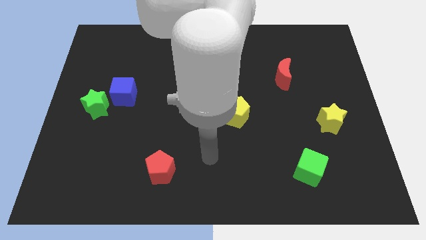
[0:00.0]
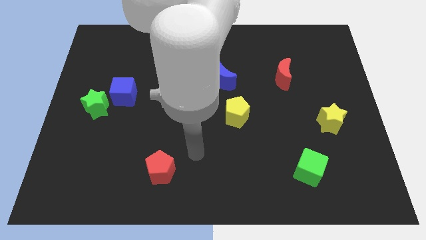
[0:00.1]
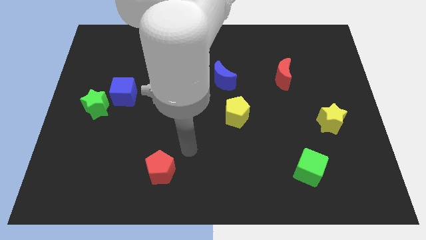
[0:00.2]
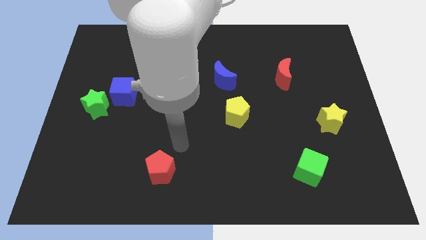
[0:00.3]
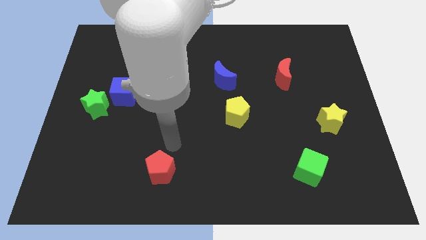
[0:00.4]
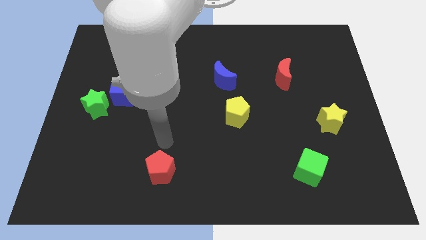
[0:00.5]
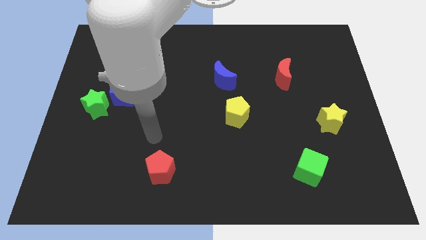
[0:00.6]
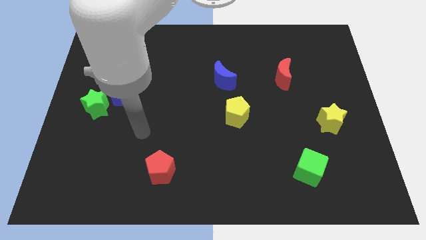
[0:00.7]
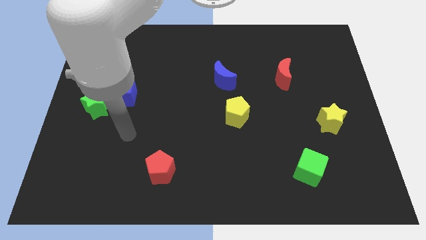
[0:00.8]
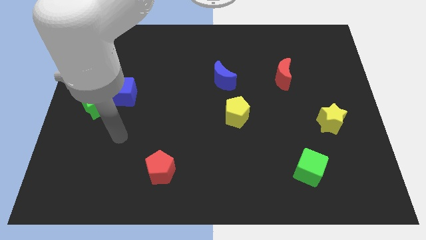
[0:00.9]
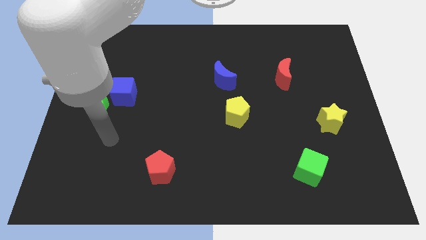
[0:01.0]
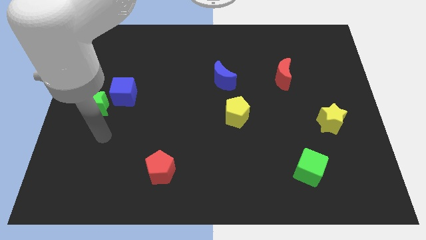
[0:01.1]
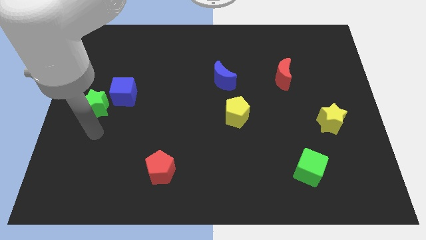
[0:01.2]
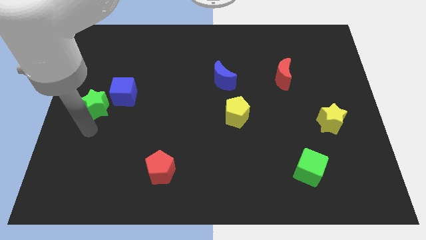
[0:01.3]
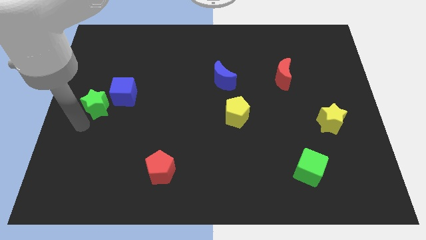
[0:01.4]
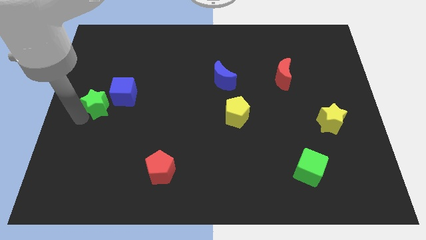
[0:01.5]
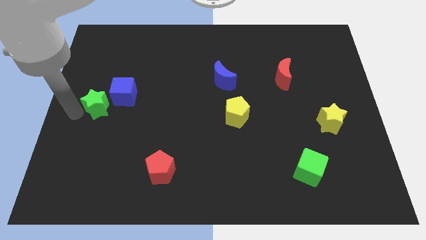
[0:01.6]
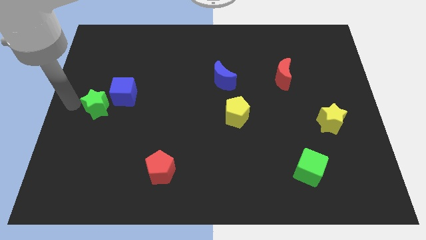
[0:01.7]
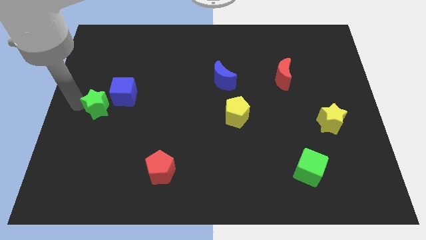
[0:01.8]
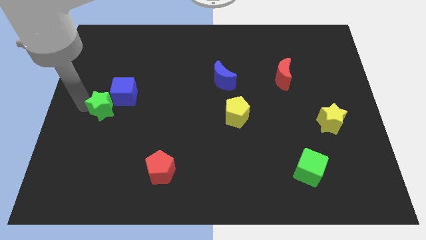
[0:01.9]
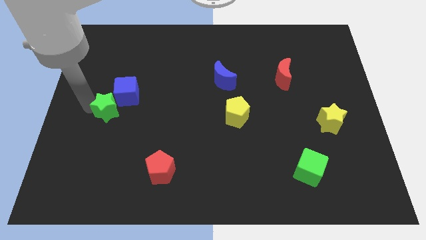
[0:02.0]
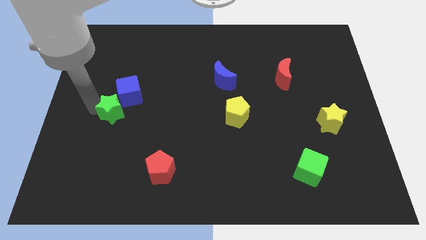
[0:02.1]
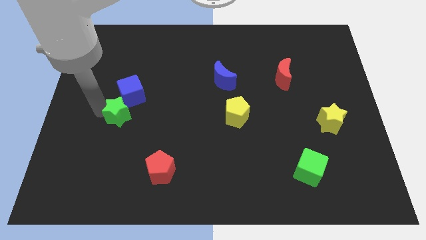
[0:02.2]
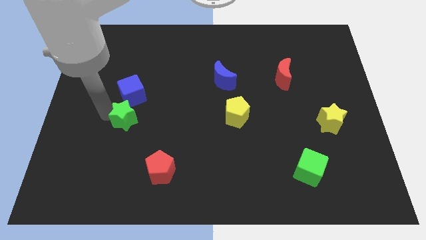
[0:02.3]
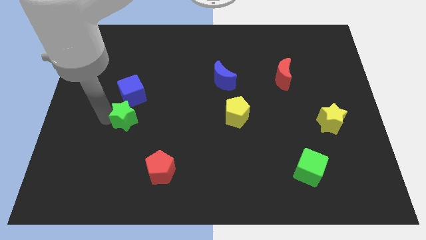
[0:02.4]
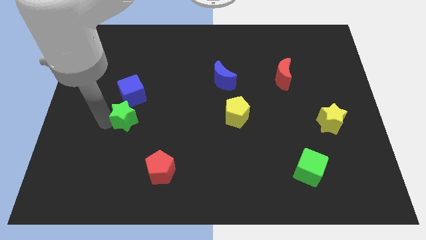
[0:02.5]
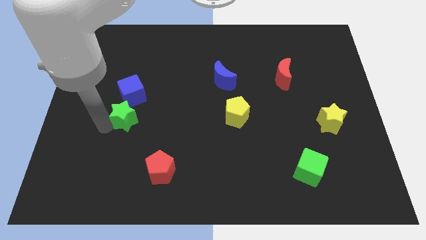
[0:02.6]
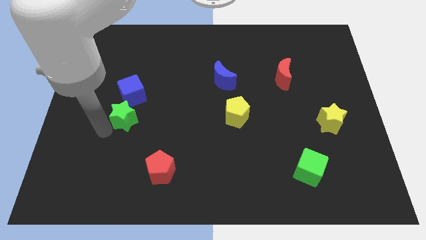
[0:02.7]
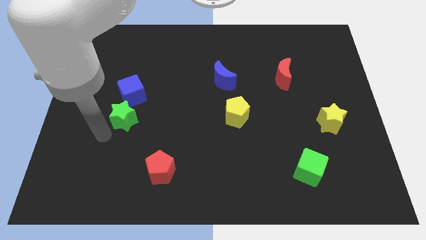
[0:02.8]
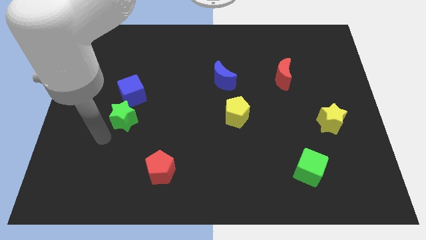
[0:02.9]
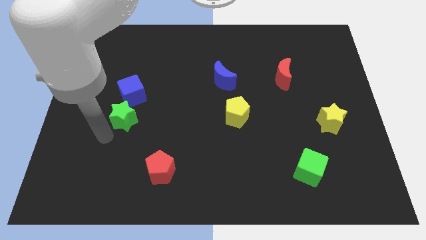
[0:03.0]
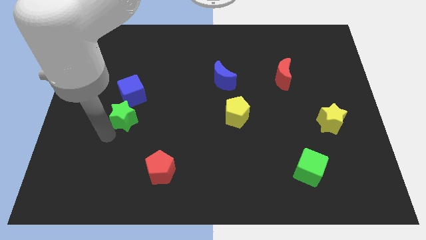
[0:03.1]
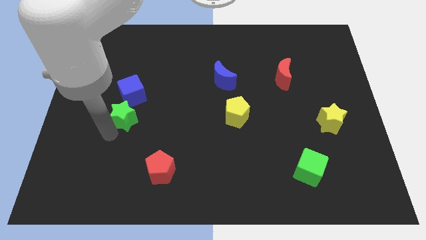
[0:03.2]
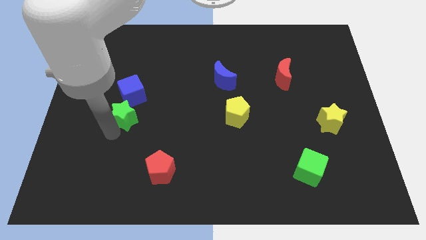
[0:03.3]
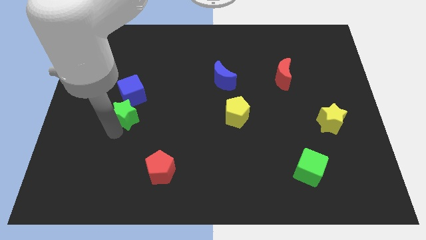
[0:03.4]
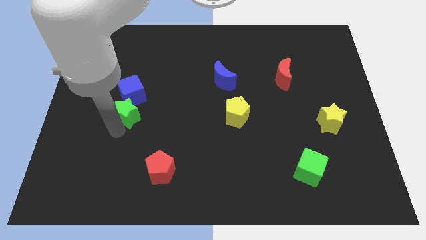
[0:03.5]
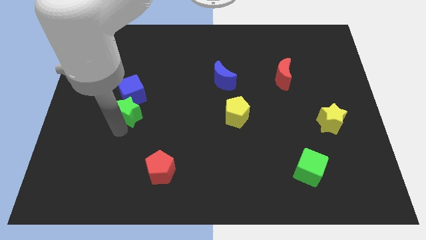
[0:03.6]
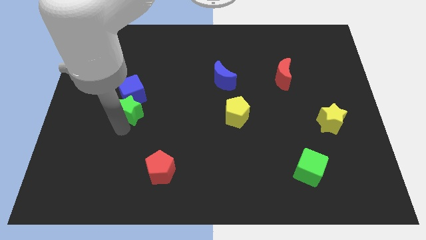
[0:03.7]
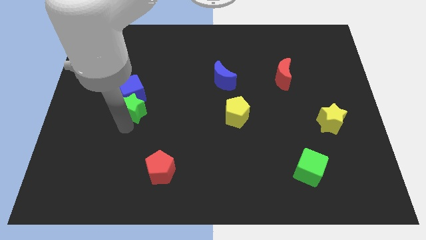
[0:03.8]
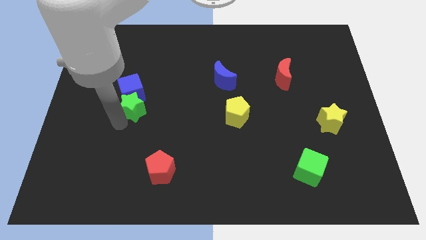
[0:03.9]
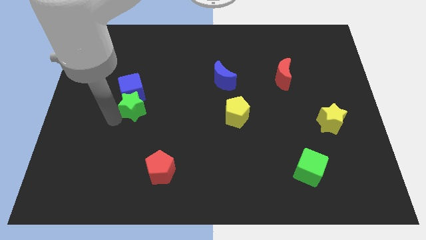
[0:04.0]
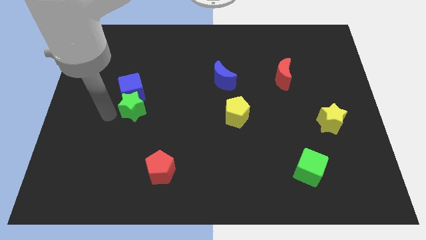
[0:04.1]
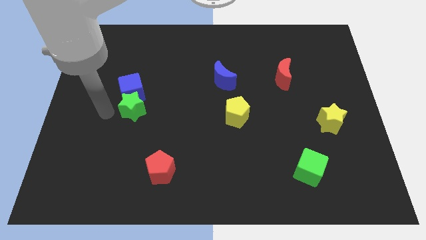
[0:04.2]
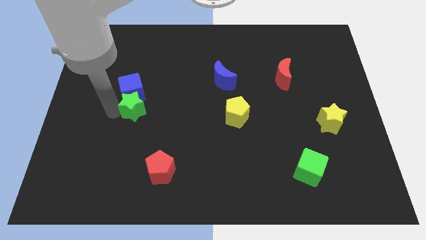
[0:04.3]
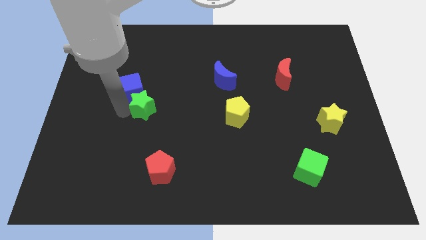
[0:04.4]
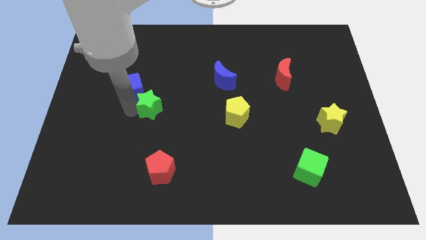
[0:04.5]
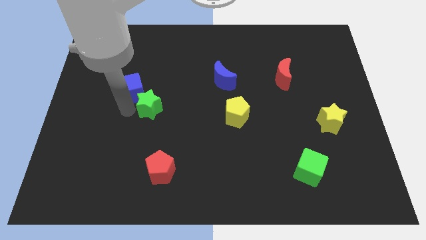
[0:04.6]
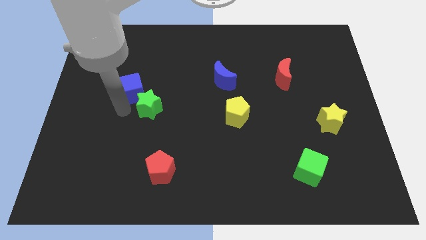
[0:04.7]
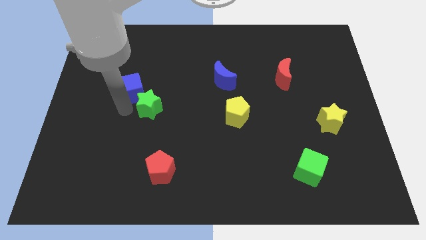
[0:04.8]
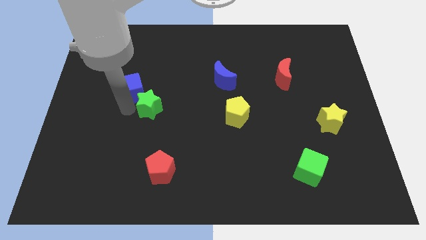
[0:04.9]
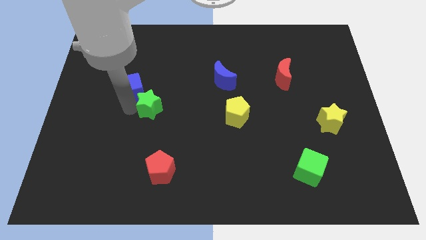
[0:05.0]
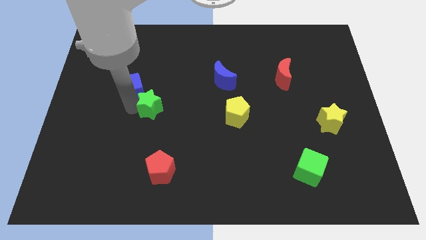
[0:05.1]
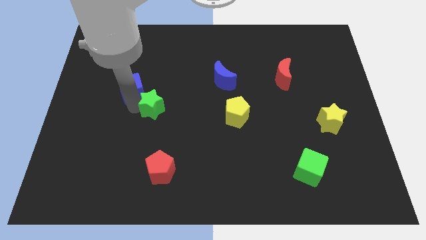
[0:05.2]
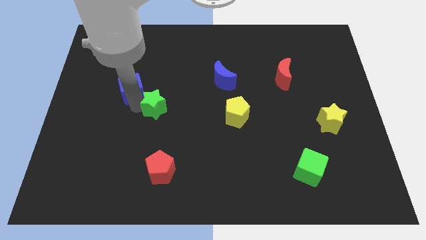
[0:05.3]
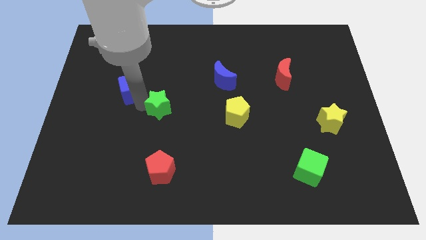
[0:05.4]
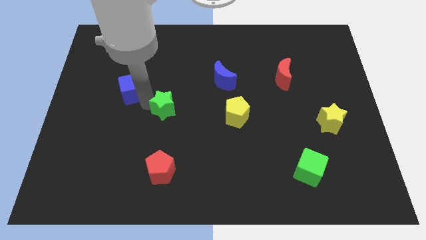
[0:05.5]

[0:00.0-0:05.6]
put the green star to the middle of the board

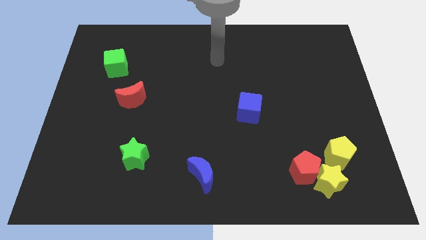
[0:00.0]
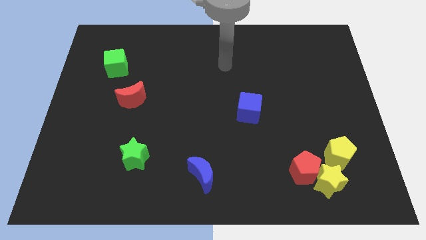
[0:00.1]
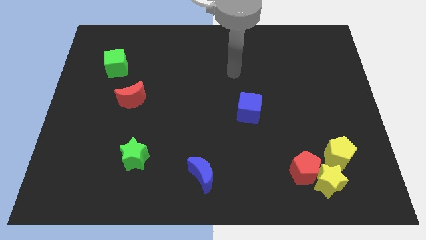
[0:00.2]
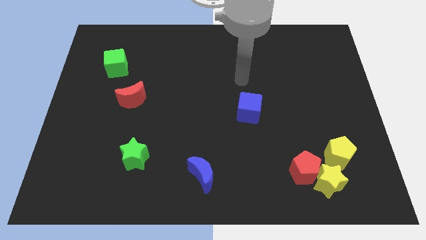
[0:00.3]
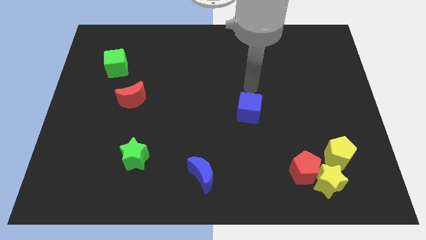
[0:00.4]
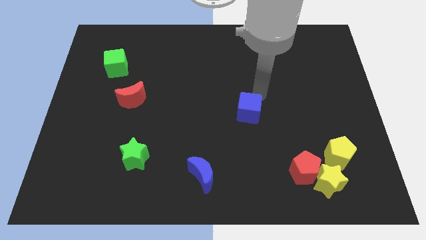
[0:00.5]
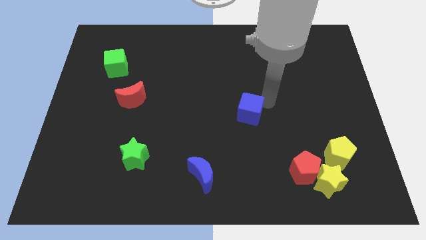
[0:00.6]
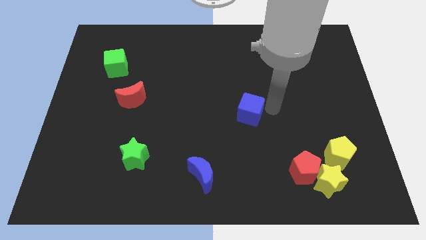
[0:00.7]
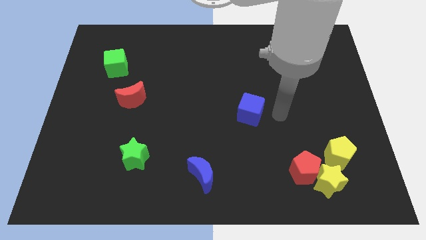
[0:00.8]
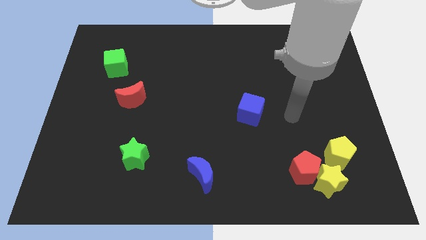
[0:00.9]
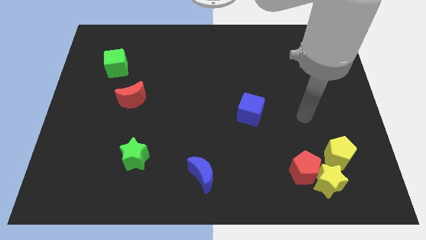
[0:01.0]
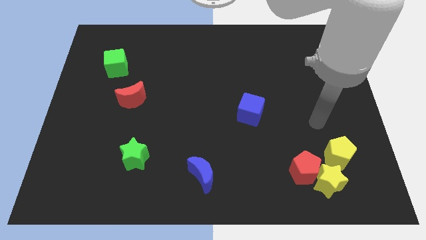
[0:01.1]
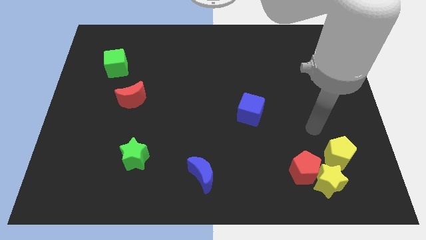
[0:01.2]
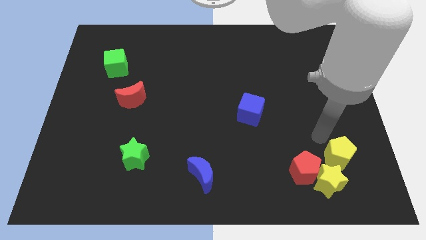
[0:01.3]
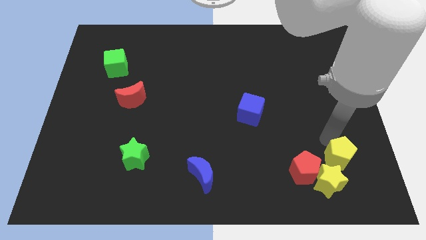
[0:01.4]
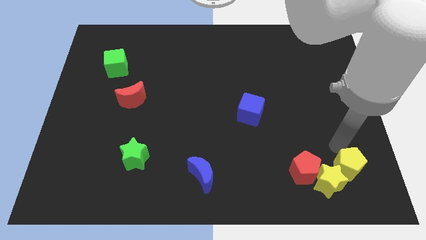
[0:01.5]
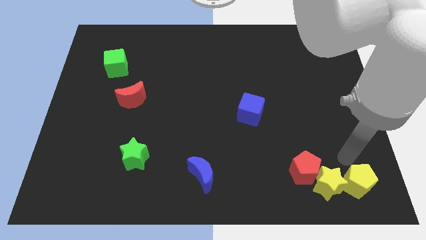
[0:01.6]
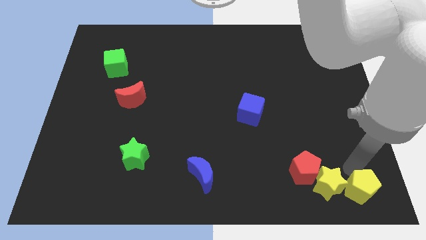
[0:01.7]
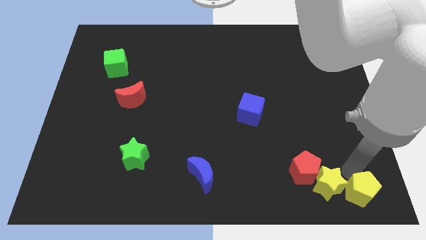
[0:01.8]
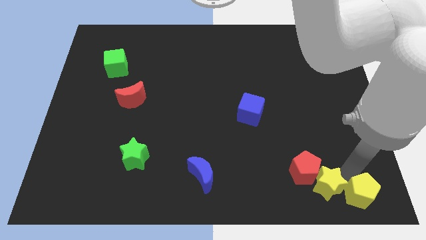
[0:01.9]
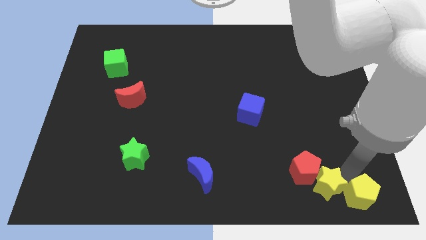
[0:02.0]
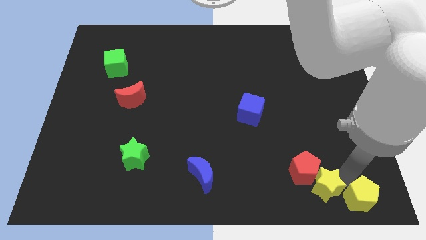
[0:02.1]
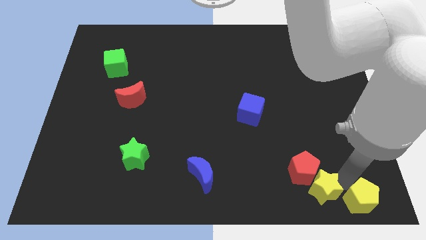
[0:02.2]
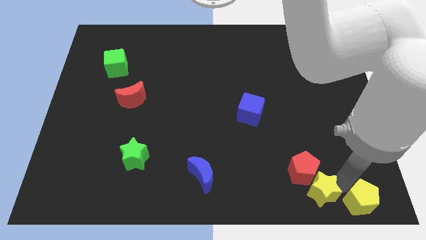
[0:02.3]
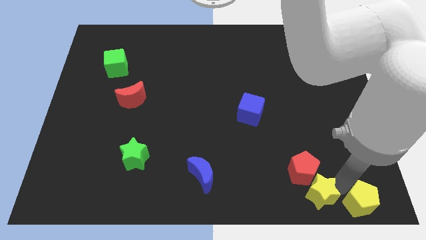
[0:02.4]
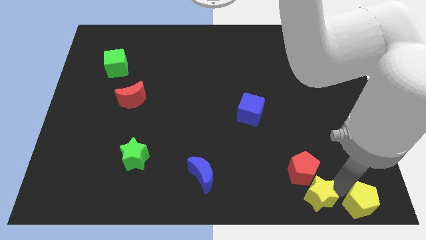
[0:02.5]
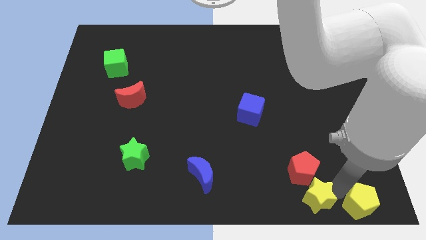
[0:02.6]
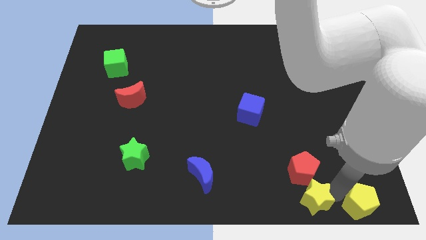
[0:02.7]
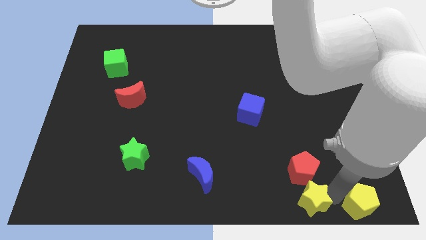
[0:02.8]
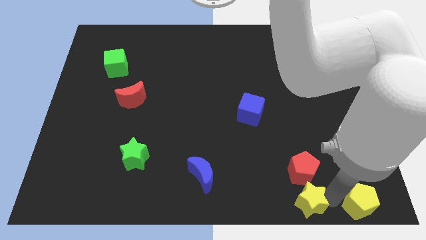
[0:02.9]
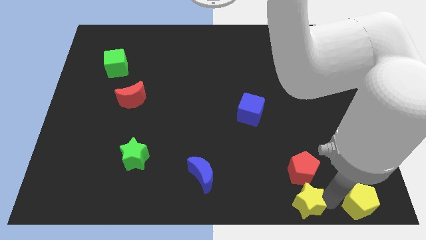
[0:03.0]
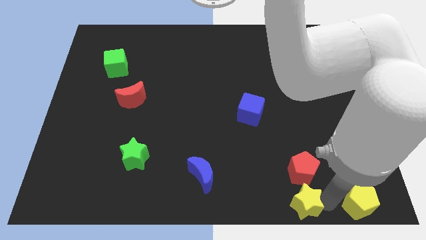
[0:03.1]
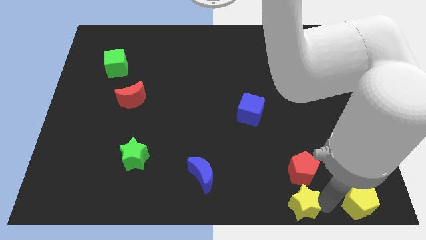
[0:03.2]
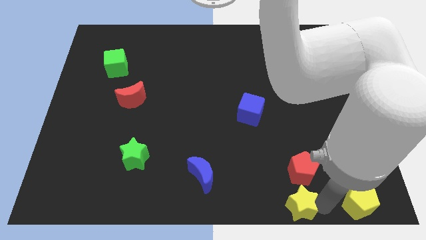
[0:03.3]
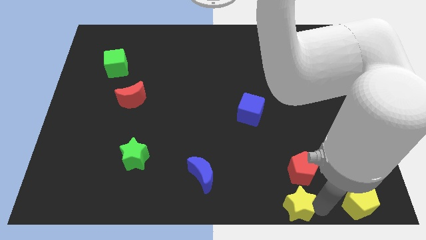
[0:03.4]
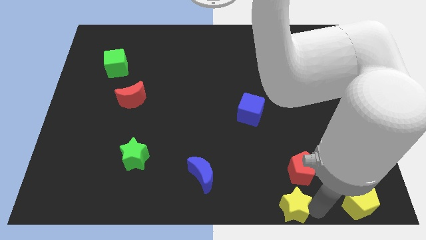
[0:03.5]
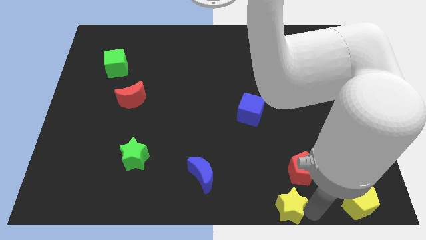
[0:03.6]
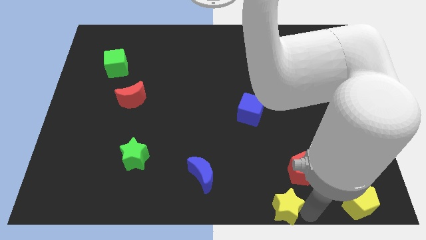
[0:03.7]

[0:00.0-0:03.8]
push the yellow star to the bottom
